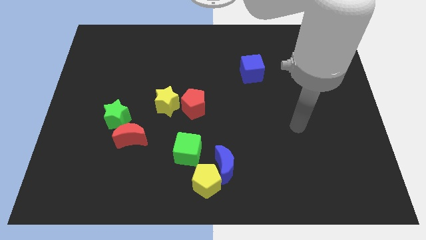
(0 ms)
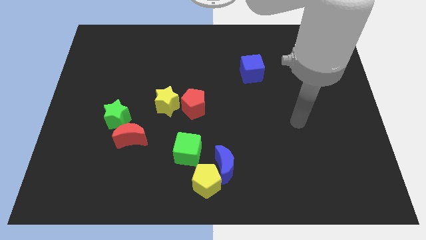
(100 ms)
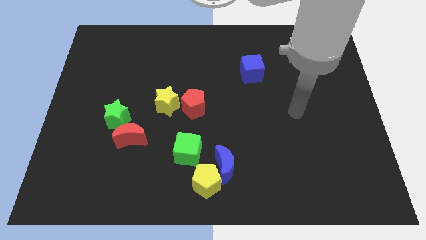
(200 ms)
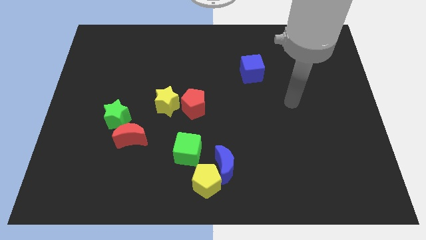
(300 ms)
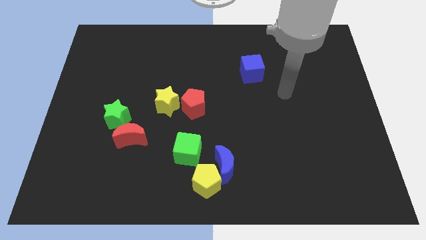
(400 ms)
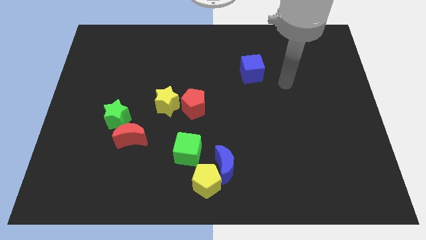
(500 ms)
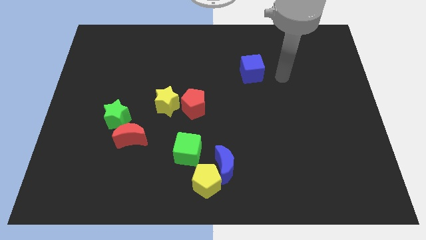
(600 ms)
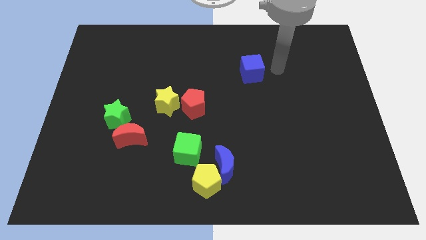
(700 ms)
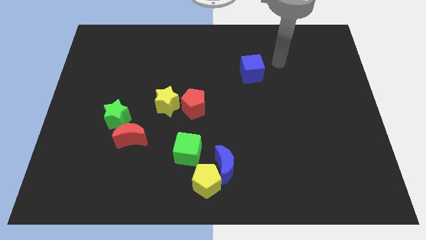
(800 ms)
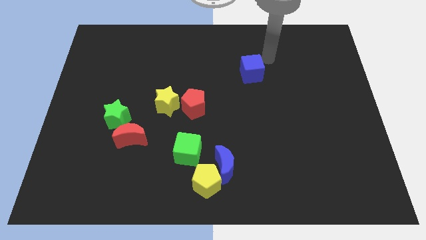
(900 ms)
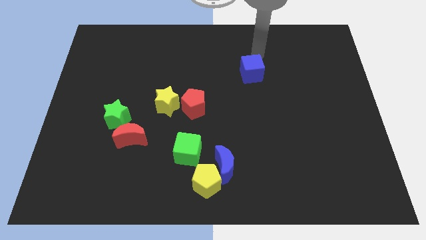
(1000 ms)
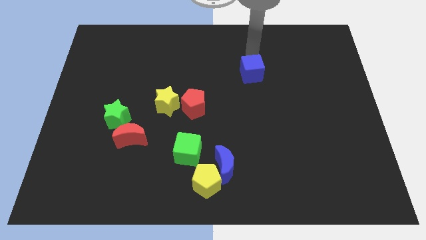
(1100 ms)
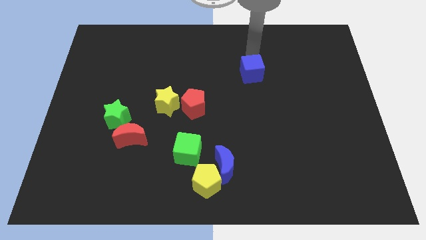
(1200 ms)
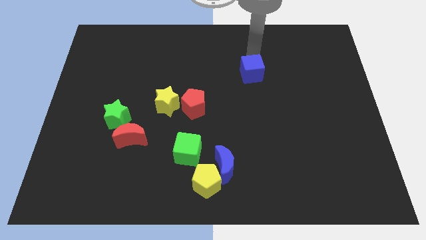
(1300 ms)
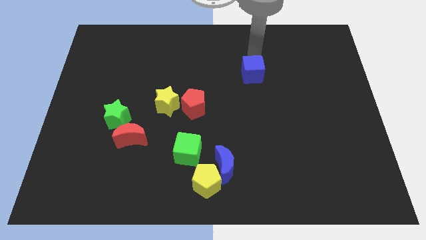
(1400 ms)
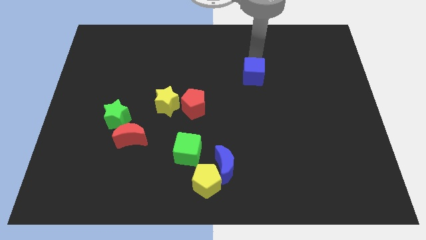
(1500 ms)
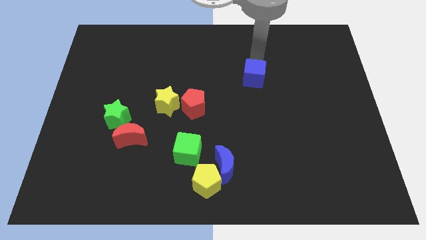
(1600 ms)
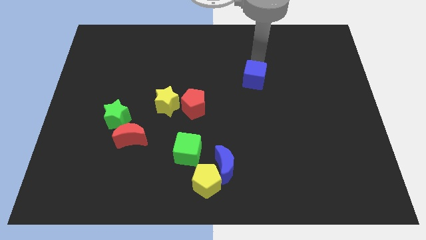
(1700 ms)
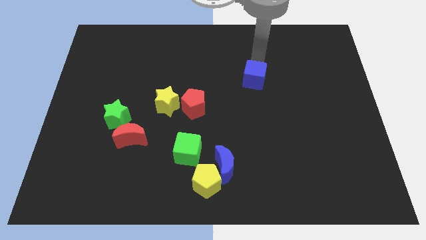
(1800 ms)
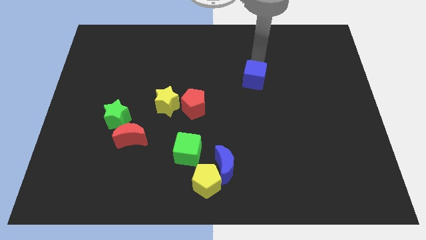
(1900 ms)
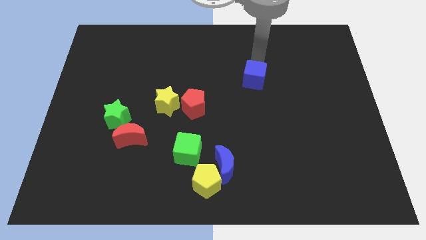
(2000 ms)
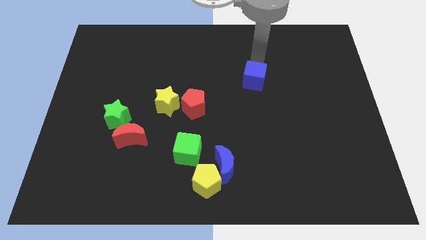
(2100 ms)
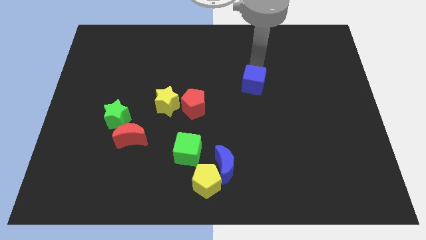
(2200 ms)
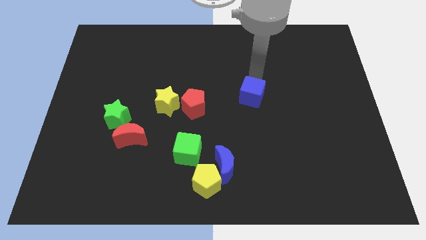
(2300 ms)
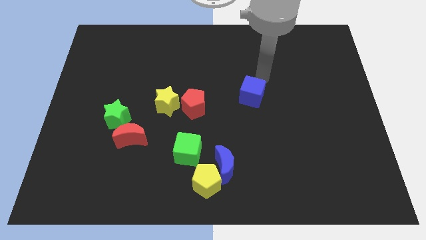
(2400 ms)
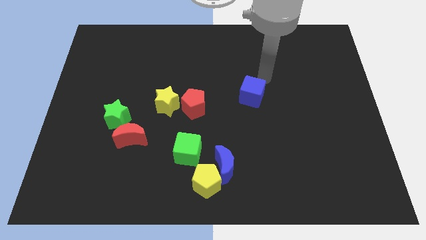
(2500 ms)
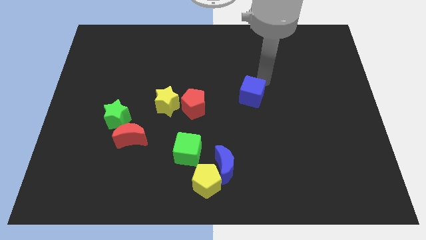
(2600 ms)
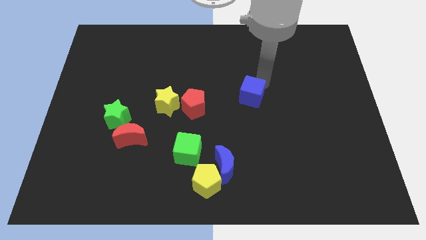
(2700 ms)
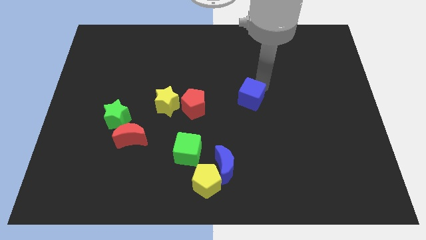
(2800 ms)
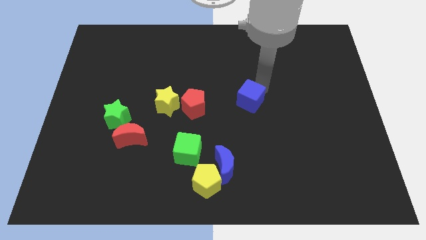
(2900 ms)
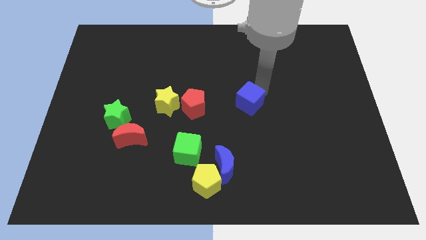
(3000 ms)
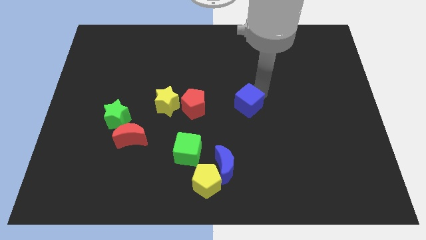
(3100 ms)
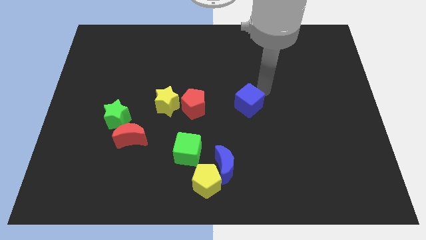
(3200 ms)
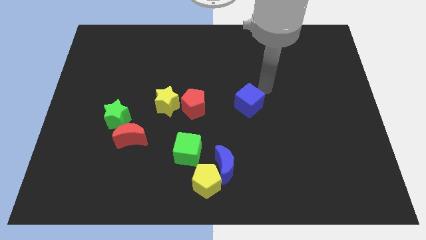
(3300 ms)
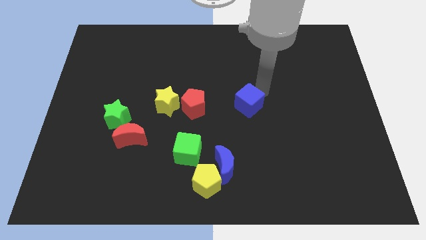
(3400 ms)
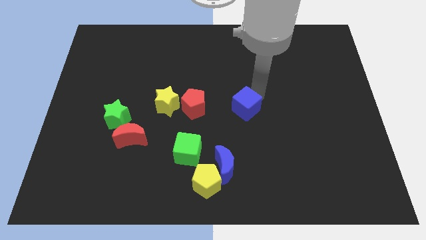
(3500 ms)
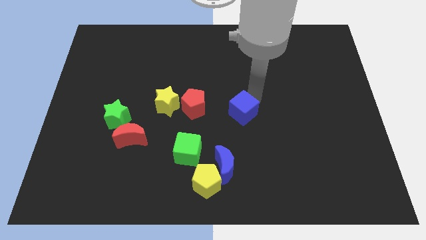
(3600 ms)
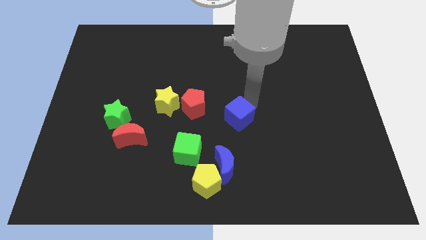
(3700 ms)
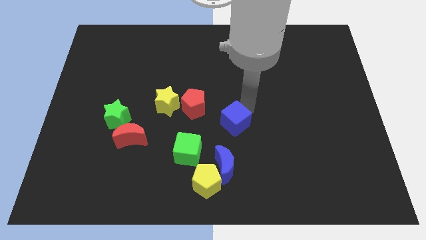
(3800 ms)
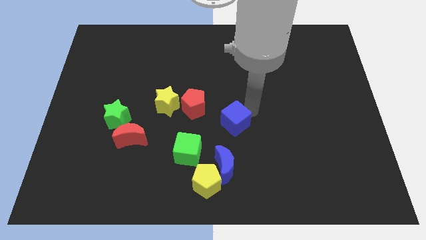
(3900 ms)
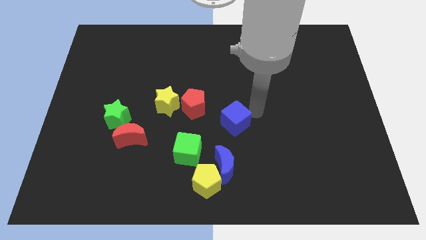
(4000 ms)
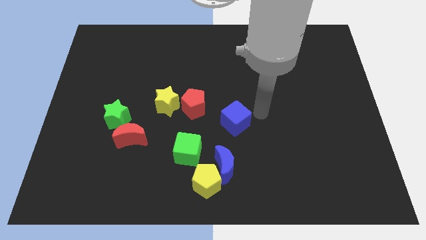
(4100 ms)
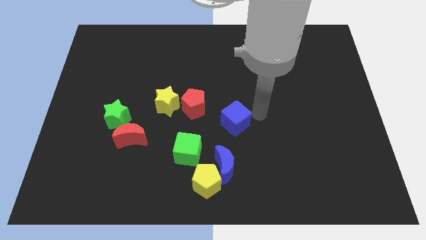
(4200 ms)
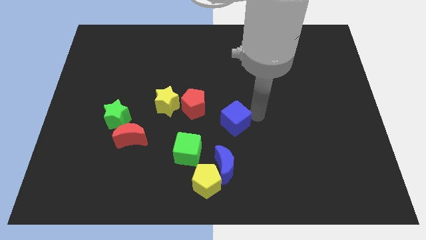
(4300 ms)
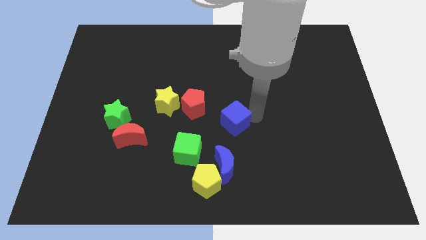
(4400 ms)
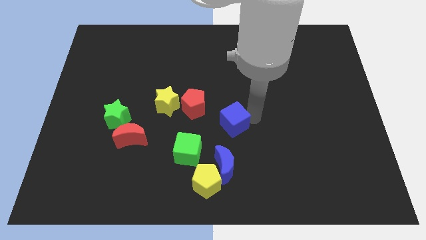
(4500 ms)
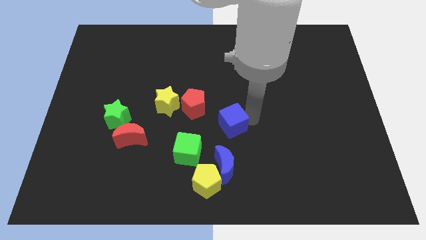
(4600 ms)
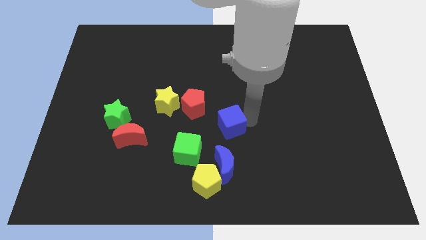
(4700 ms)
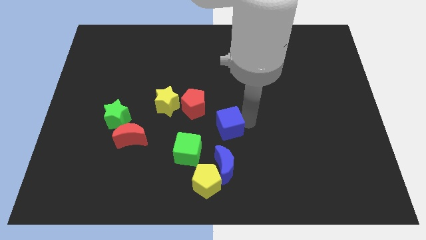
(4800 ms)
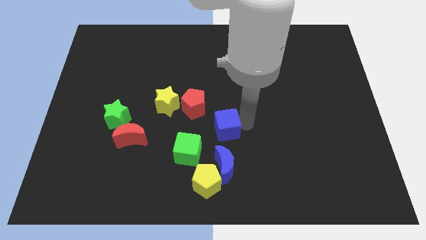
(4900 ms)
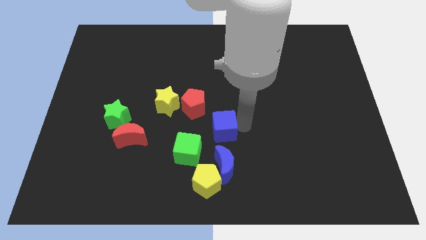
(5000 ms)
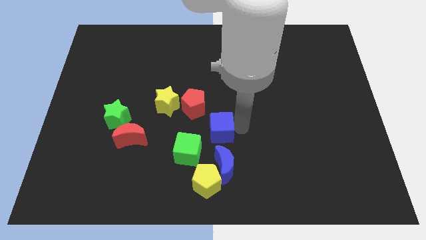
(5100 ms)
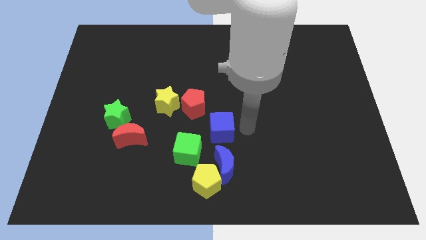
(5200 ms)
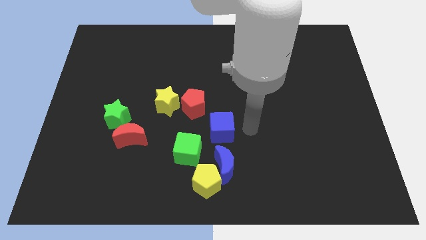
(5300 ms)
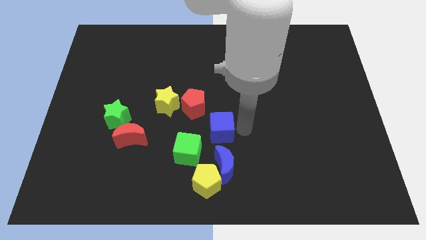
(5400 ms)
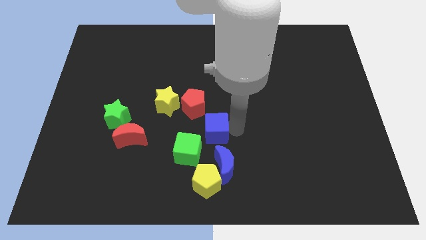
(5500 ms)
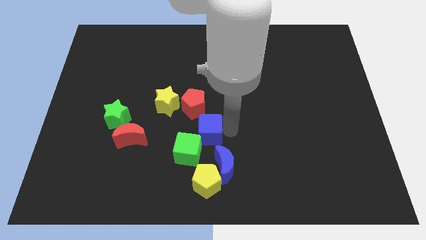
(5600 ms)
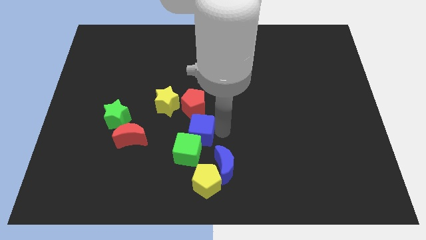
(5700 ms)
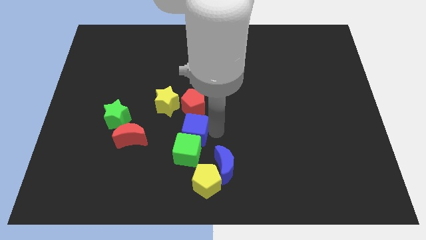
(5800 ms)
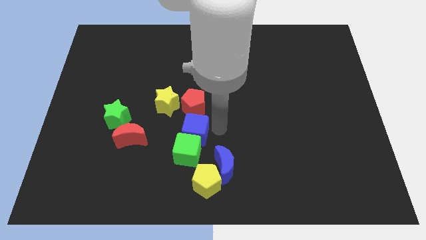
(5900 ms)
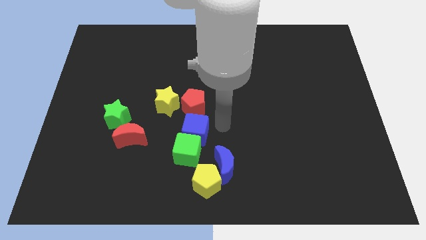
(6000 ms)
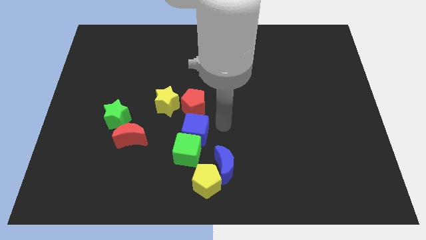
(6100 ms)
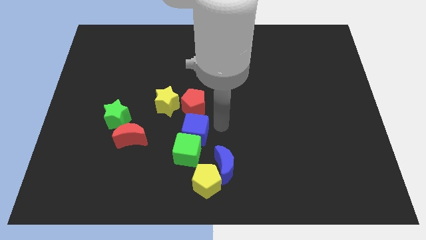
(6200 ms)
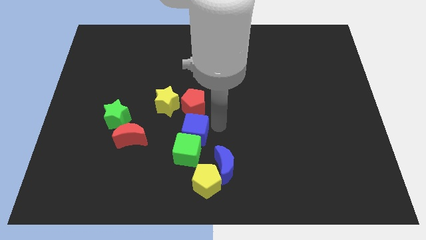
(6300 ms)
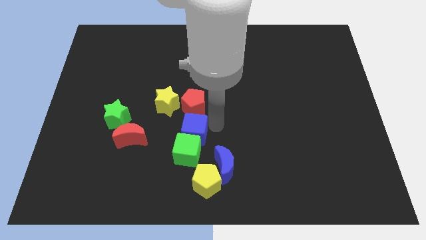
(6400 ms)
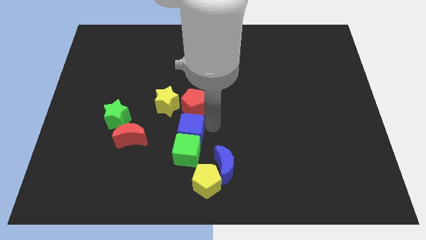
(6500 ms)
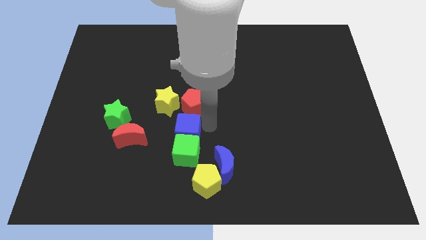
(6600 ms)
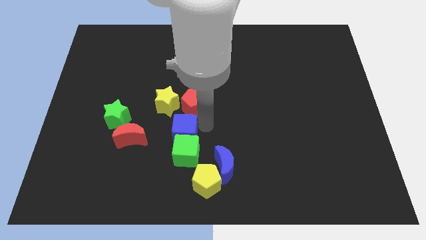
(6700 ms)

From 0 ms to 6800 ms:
move the blue cube to the bottom of the yellow star
